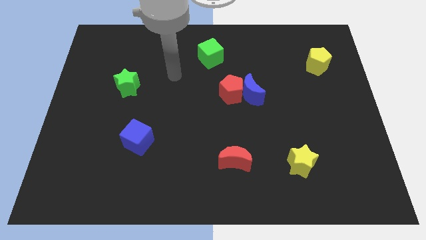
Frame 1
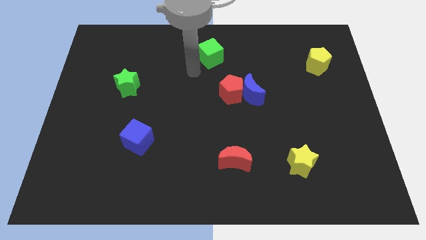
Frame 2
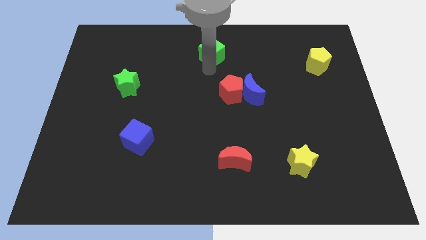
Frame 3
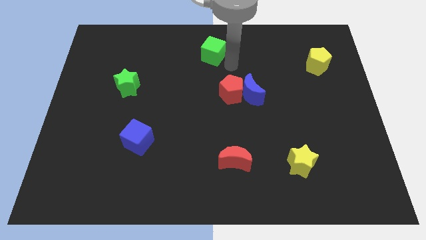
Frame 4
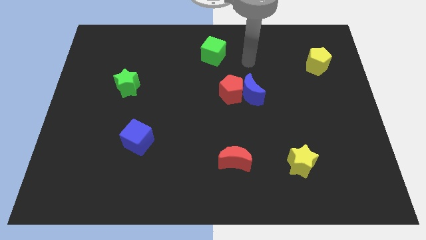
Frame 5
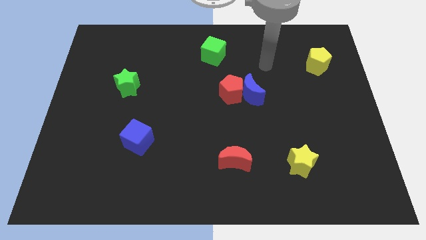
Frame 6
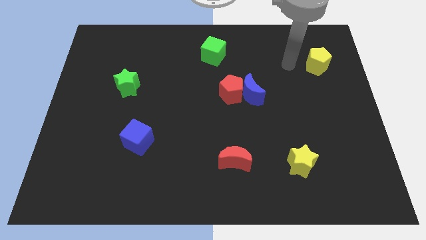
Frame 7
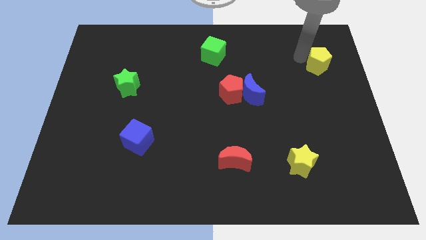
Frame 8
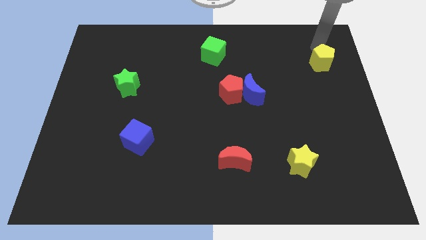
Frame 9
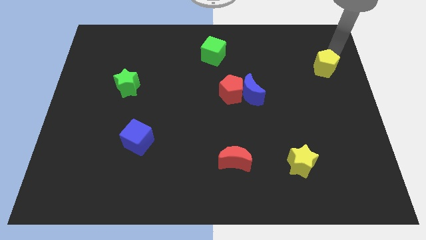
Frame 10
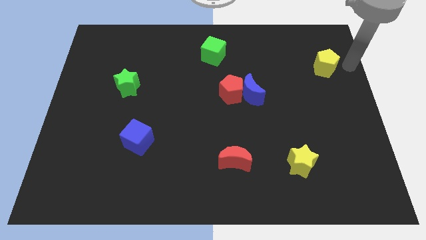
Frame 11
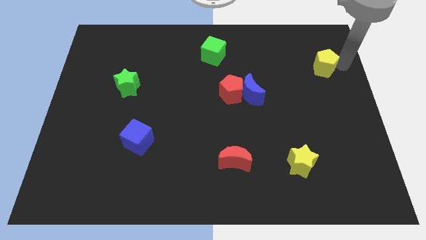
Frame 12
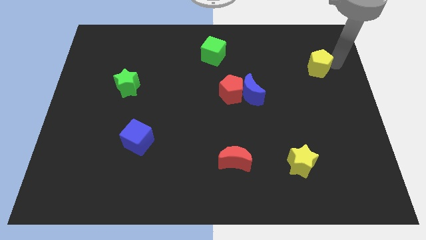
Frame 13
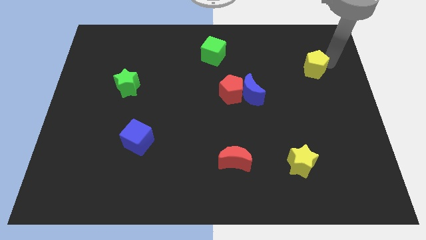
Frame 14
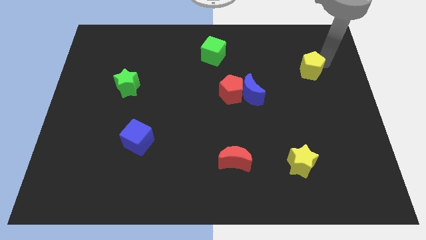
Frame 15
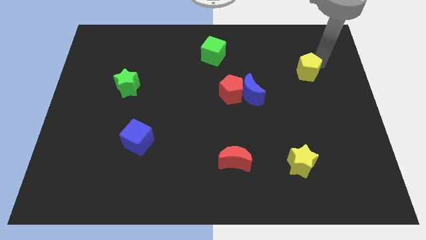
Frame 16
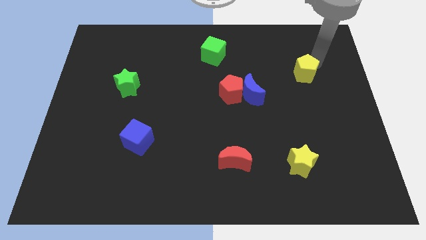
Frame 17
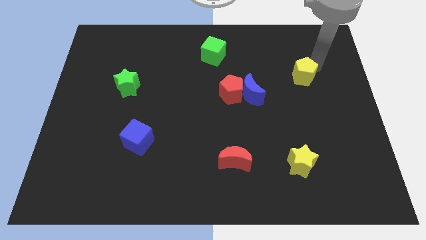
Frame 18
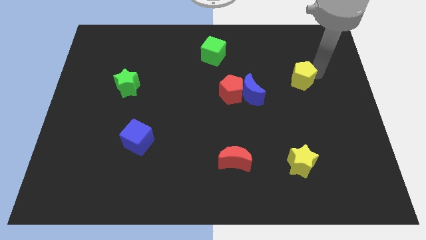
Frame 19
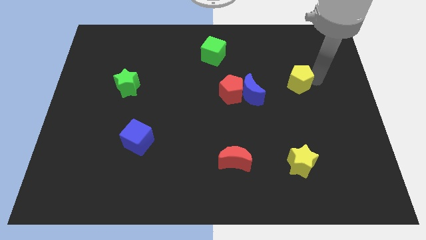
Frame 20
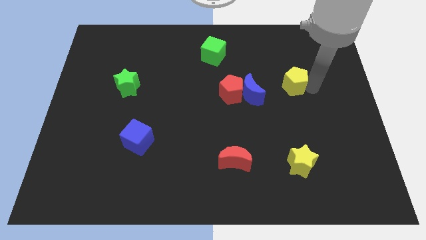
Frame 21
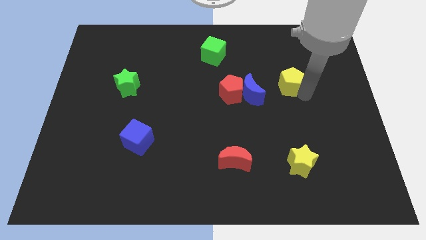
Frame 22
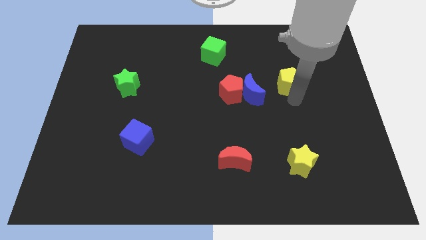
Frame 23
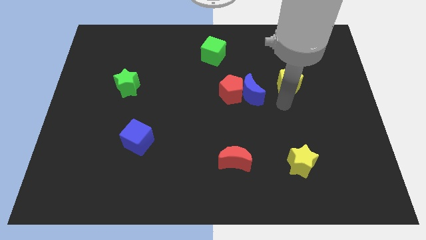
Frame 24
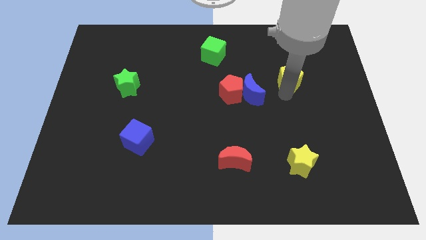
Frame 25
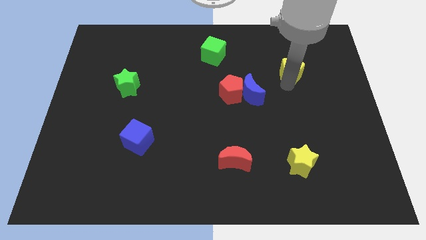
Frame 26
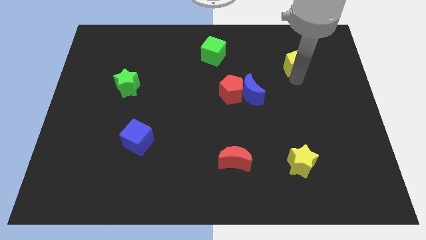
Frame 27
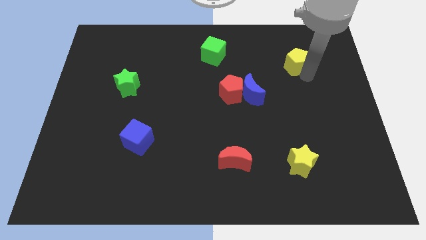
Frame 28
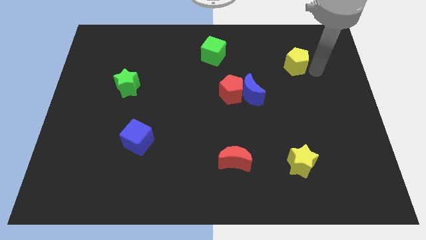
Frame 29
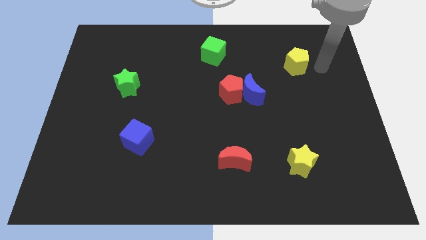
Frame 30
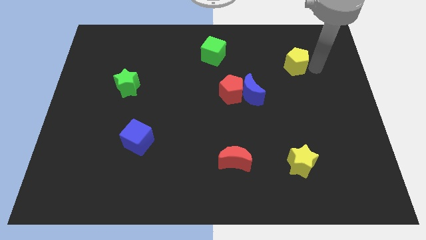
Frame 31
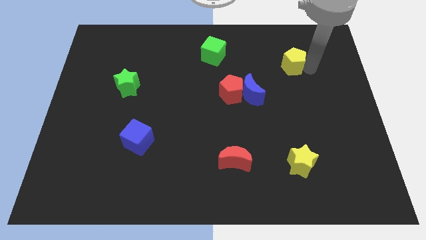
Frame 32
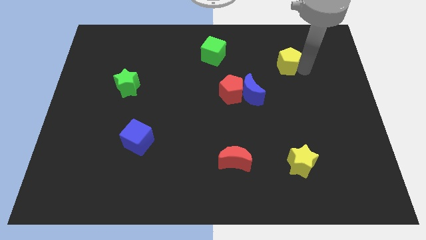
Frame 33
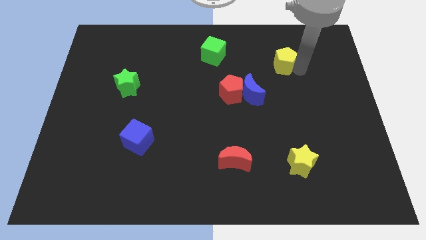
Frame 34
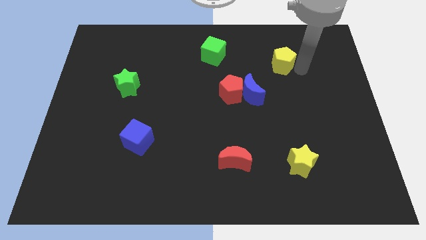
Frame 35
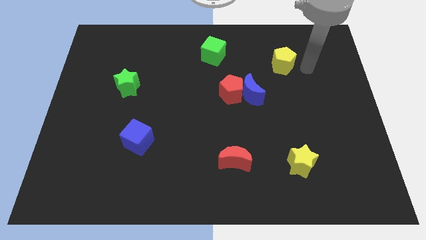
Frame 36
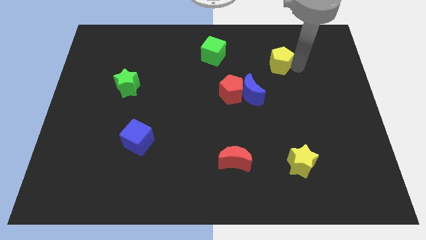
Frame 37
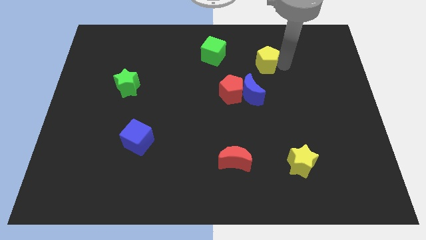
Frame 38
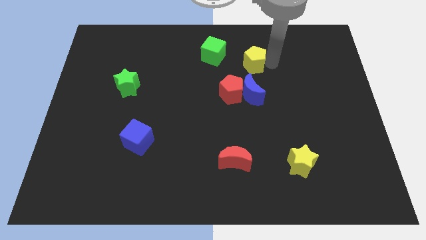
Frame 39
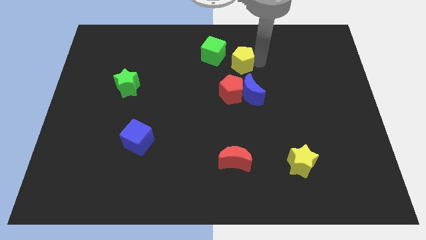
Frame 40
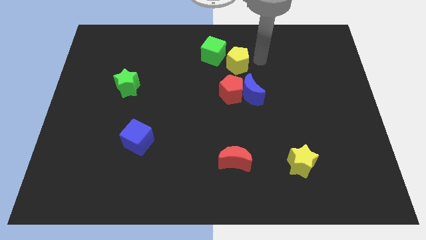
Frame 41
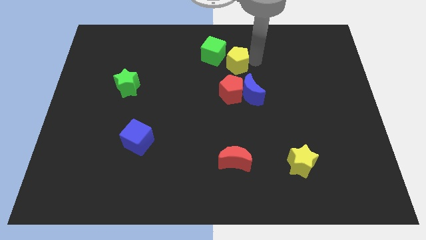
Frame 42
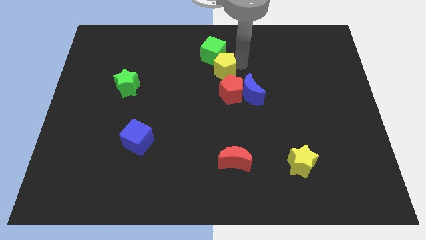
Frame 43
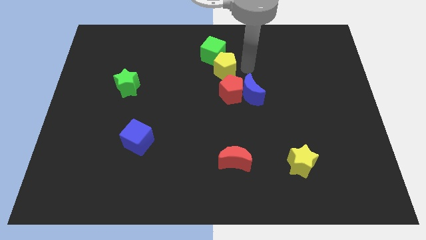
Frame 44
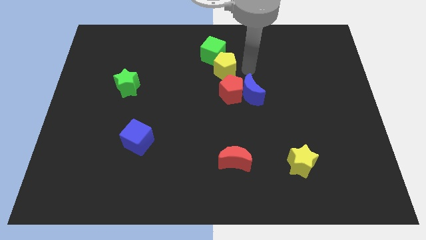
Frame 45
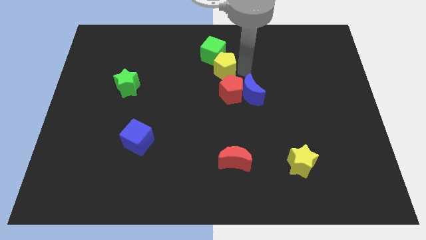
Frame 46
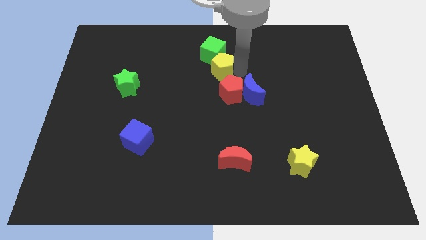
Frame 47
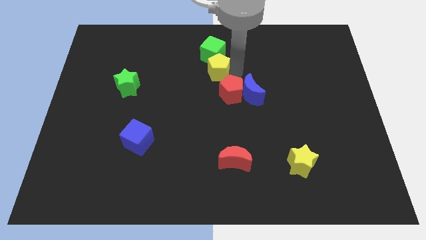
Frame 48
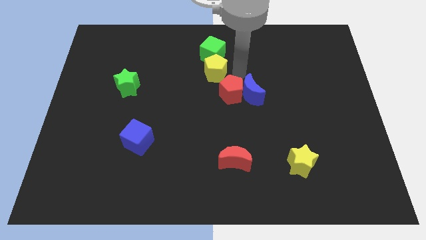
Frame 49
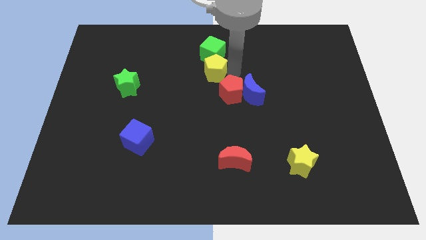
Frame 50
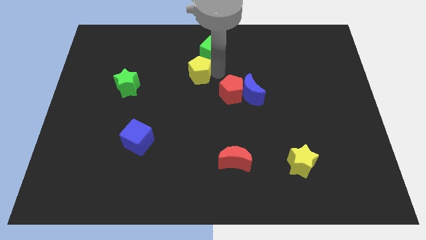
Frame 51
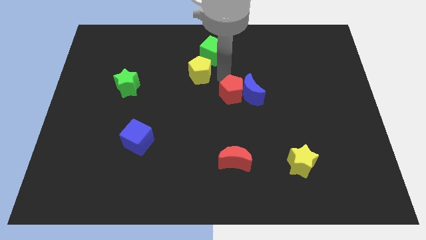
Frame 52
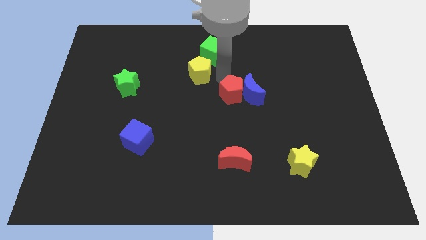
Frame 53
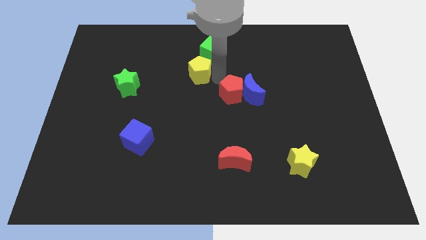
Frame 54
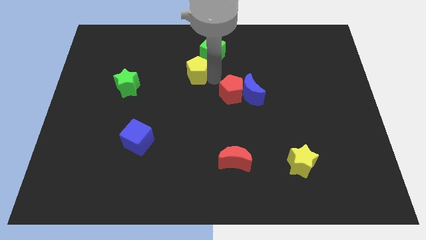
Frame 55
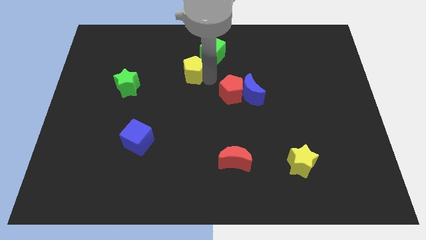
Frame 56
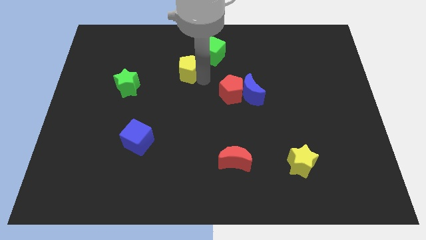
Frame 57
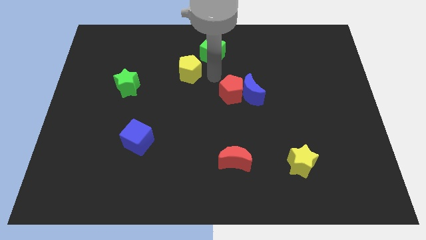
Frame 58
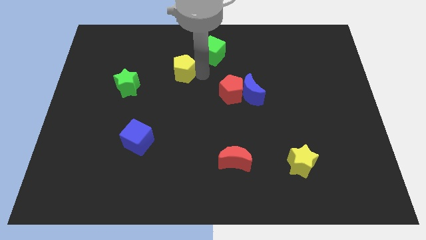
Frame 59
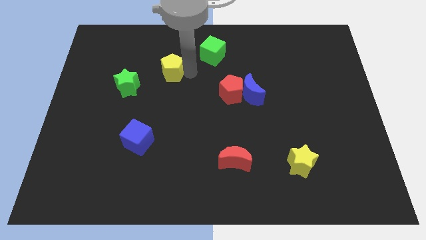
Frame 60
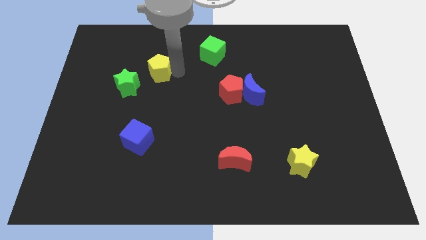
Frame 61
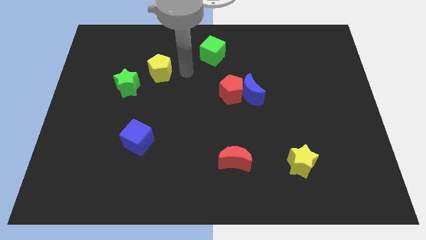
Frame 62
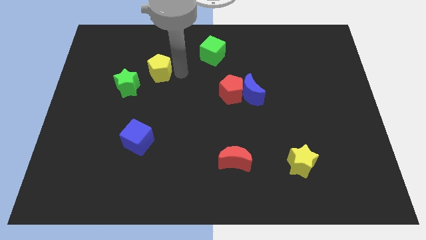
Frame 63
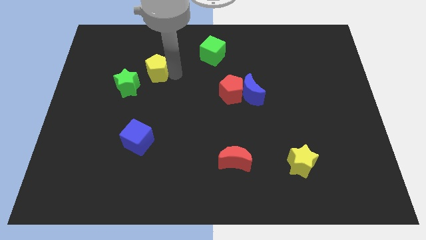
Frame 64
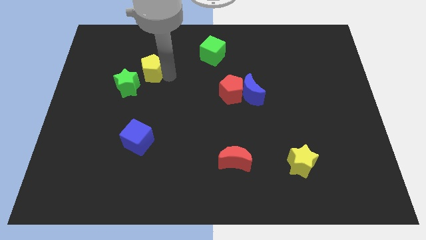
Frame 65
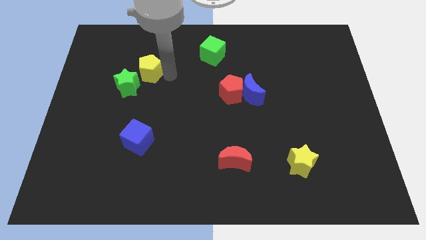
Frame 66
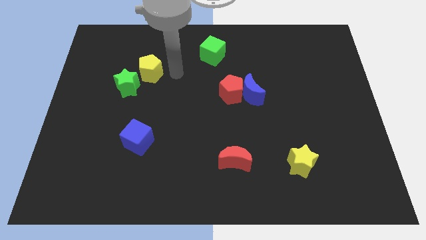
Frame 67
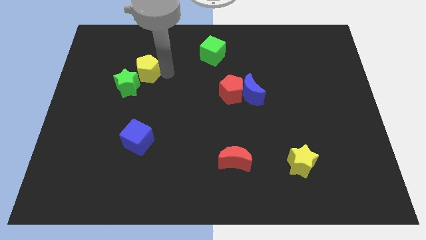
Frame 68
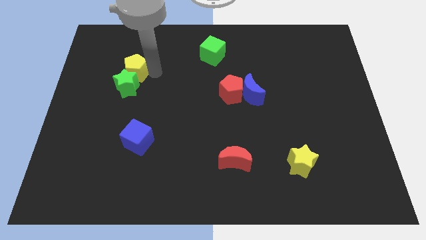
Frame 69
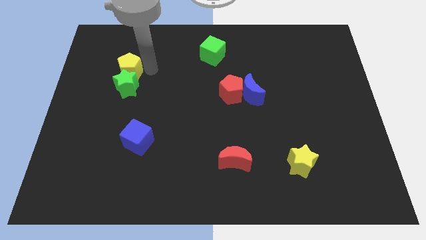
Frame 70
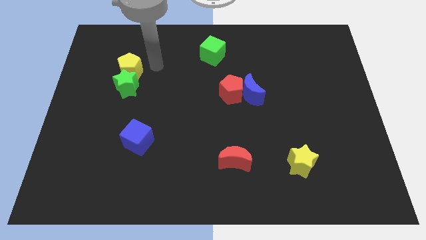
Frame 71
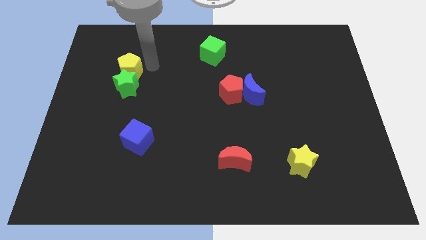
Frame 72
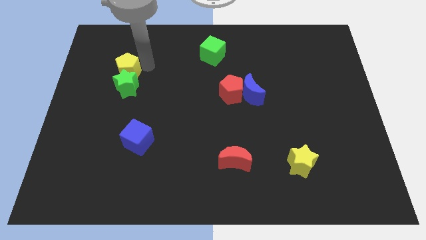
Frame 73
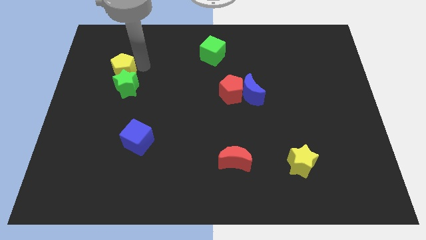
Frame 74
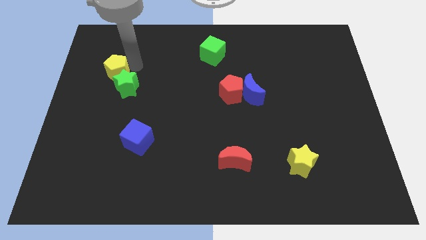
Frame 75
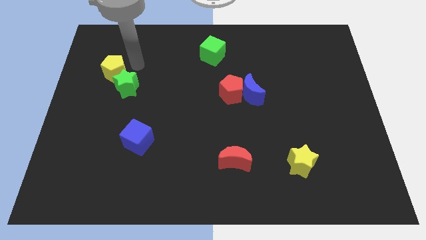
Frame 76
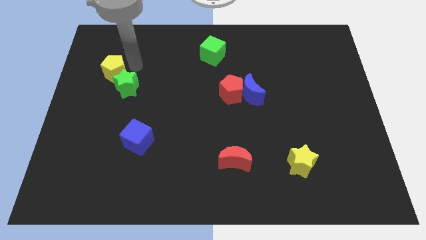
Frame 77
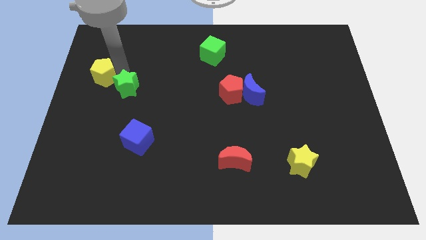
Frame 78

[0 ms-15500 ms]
push the yellow pentagon to the left side
